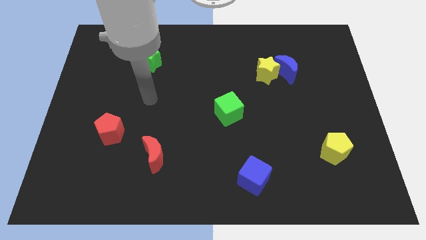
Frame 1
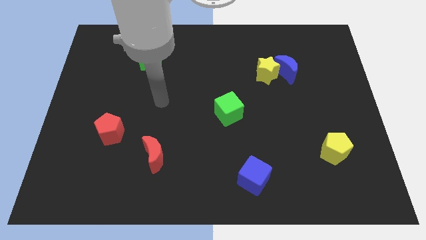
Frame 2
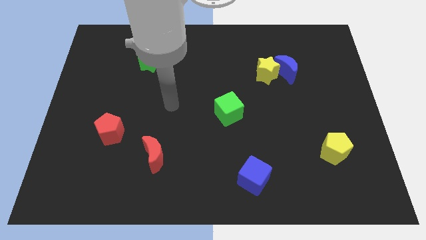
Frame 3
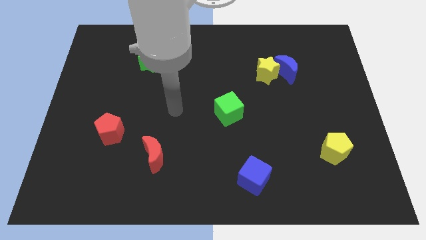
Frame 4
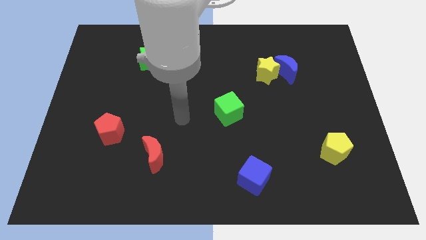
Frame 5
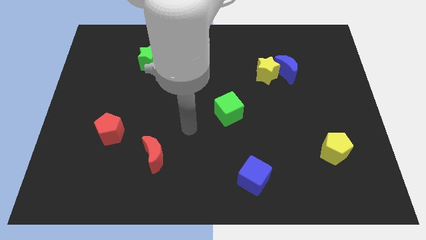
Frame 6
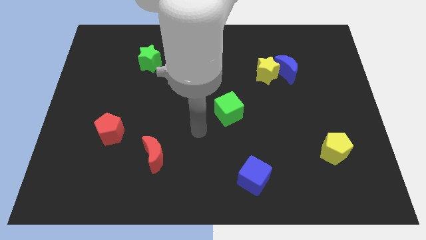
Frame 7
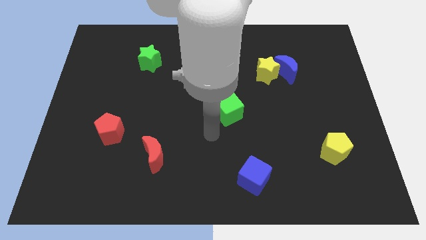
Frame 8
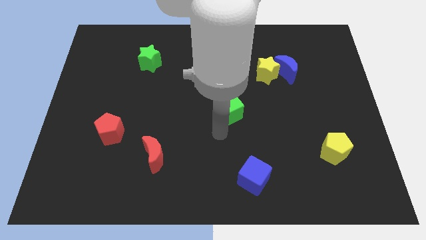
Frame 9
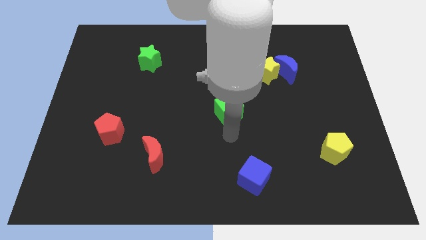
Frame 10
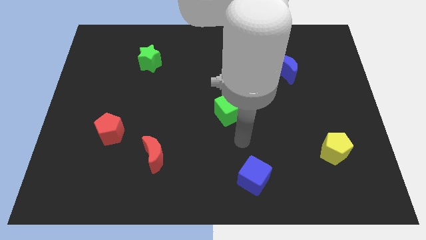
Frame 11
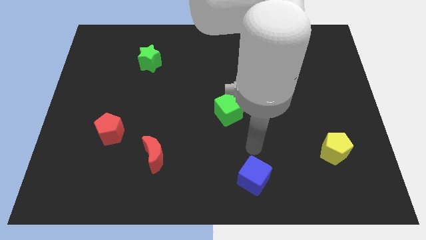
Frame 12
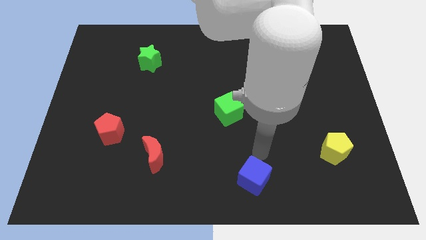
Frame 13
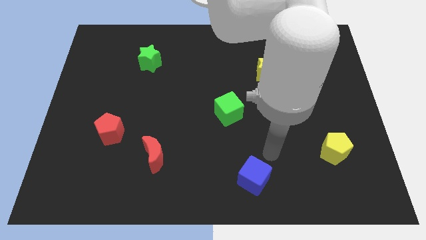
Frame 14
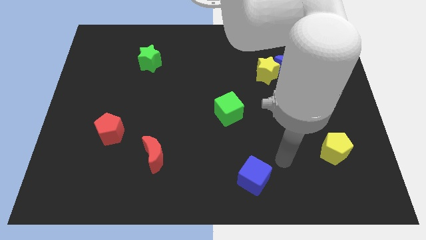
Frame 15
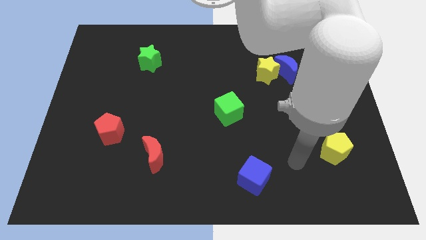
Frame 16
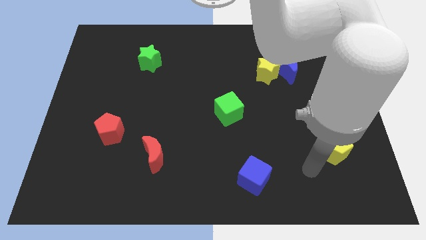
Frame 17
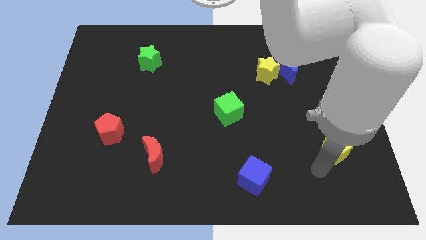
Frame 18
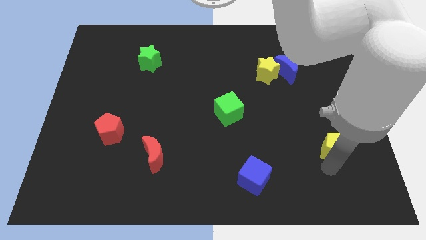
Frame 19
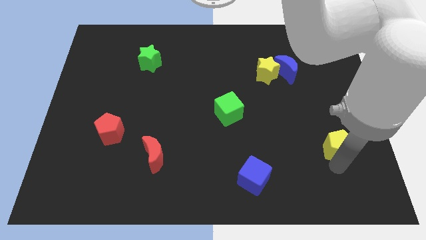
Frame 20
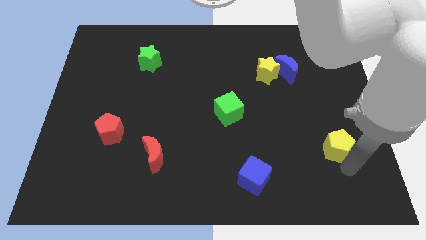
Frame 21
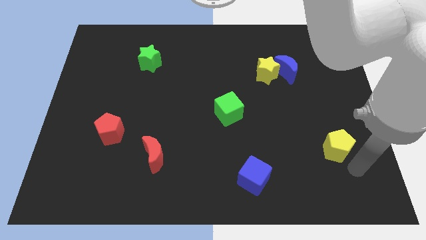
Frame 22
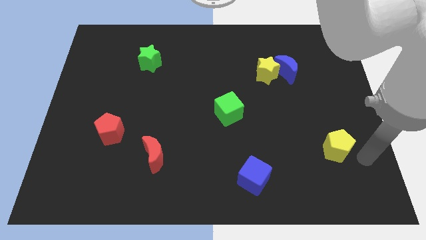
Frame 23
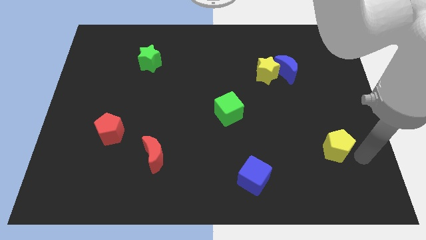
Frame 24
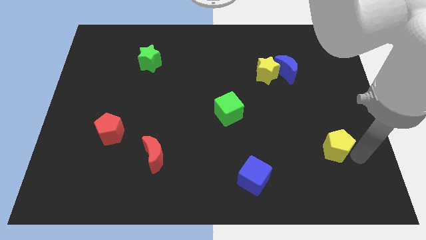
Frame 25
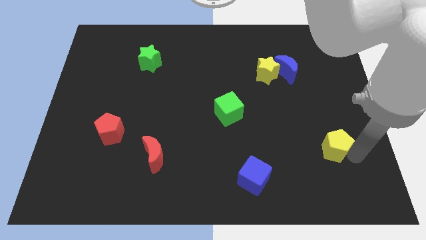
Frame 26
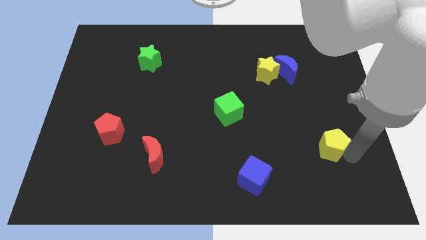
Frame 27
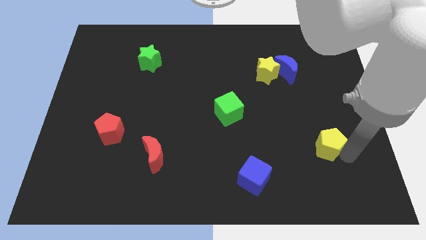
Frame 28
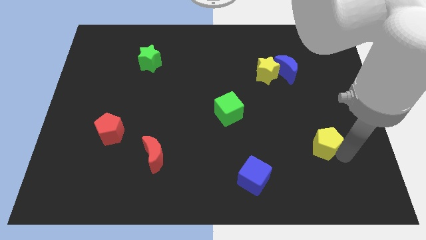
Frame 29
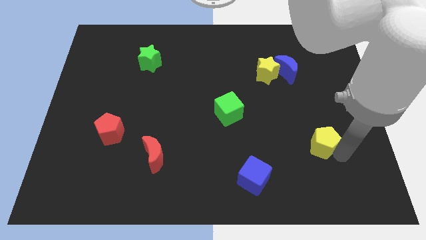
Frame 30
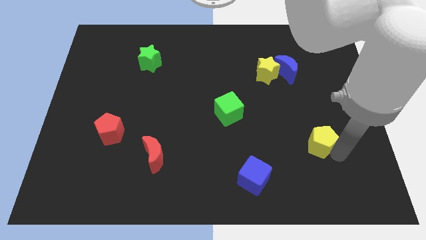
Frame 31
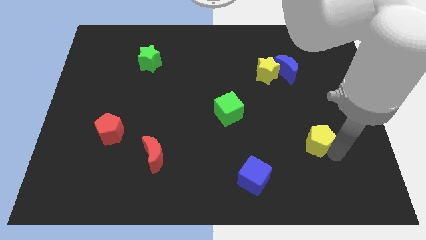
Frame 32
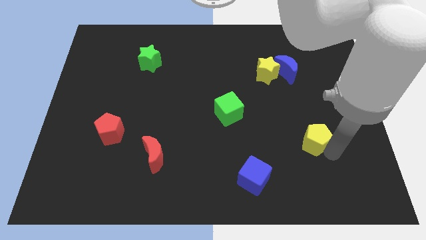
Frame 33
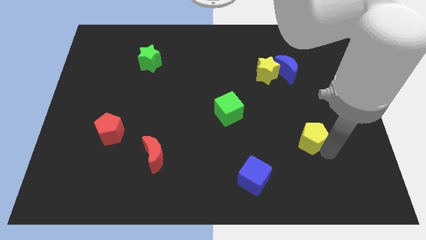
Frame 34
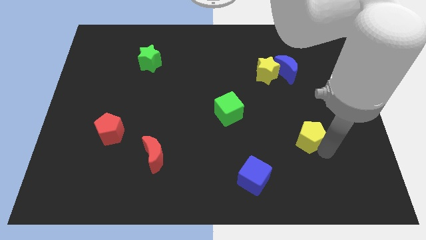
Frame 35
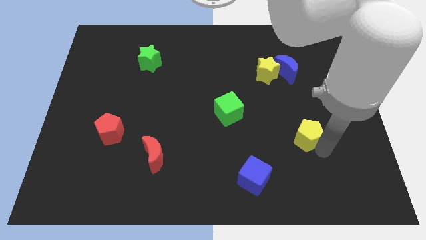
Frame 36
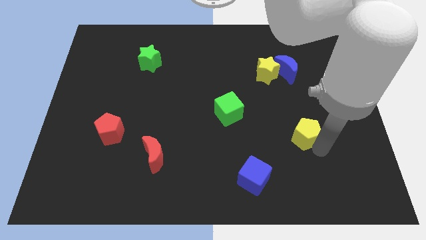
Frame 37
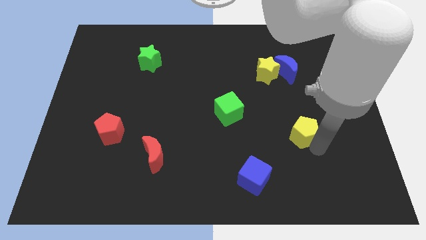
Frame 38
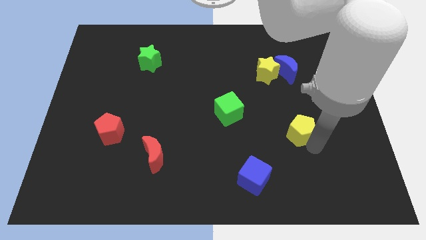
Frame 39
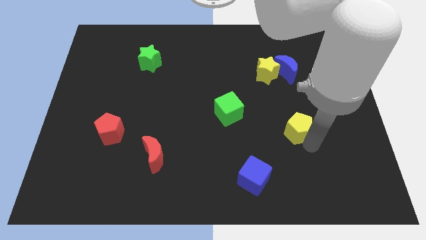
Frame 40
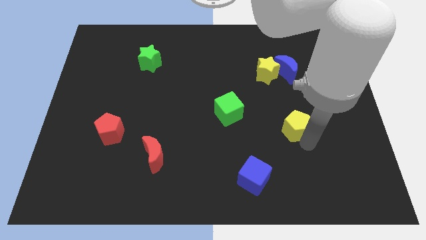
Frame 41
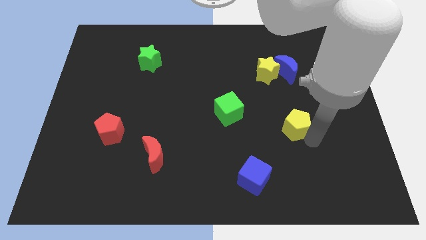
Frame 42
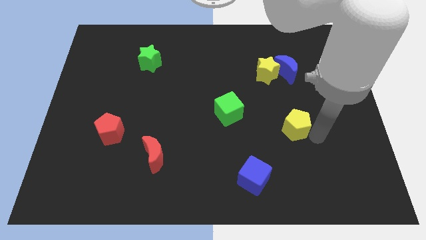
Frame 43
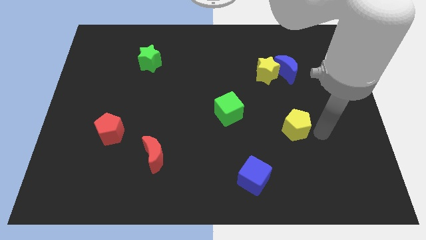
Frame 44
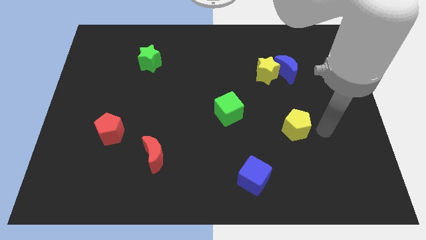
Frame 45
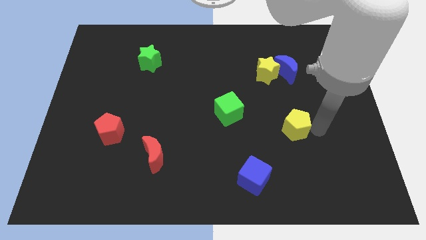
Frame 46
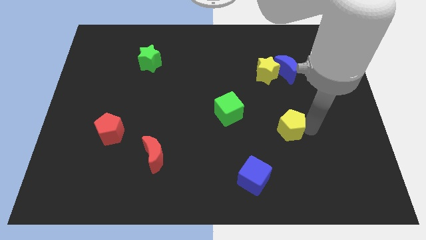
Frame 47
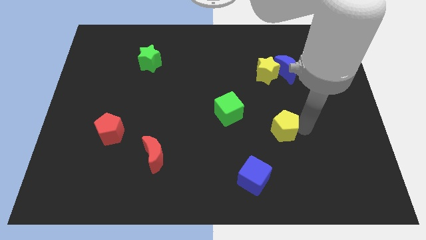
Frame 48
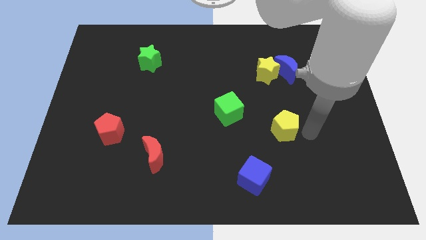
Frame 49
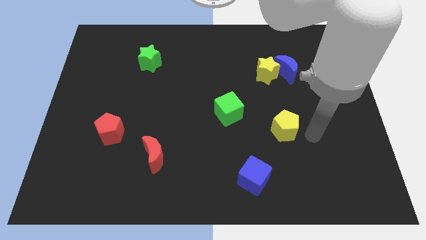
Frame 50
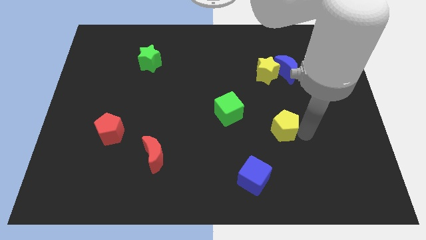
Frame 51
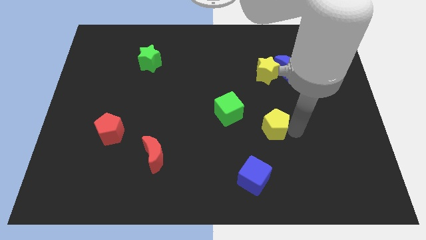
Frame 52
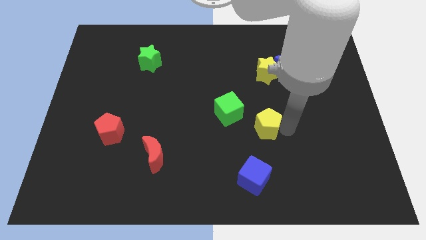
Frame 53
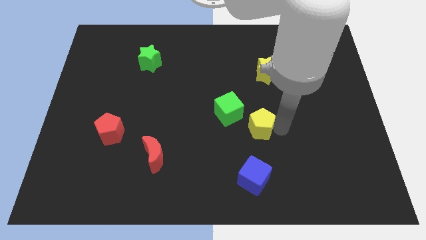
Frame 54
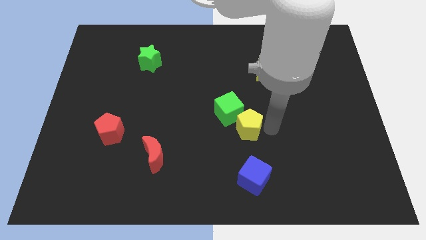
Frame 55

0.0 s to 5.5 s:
slide the yellow pentagon next to the green cube

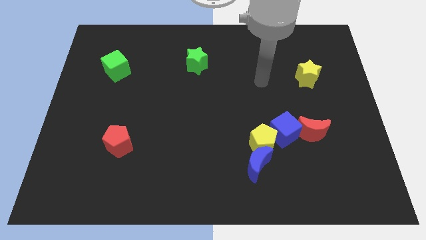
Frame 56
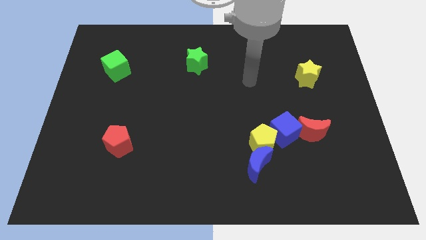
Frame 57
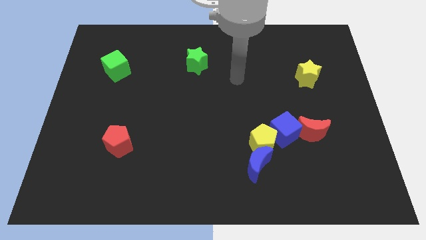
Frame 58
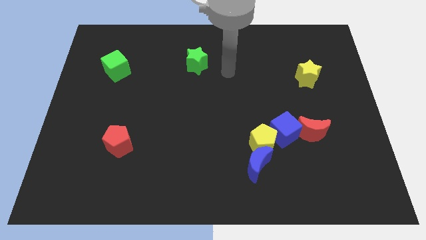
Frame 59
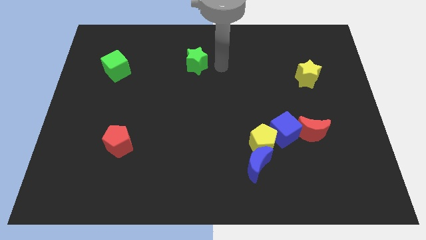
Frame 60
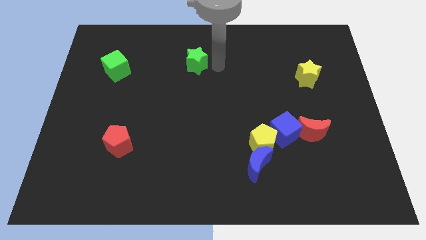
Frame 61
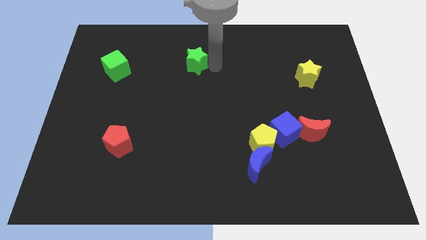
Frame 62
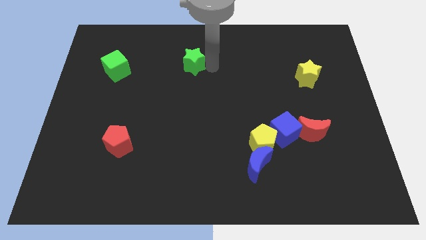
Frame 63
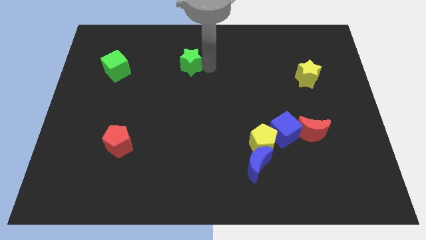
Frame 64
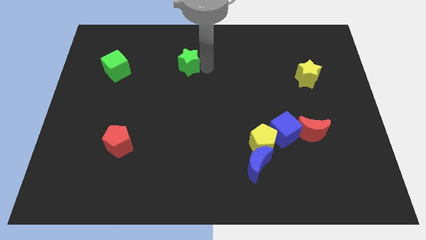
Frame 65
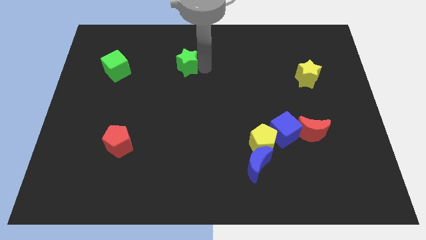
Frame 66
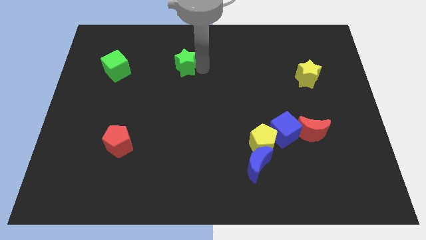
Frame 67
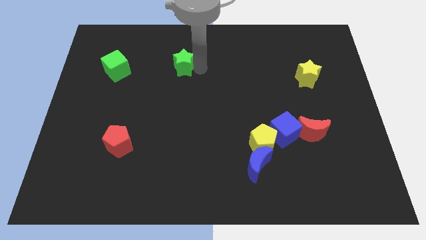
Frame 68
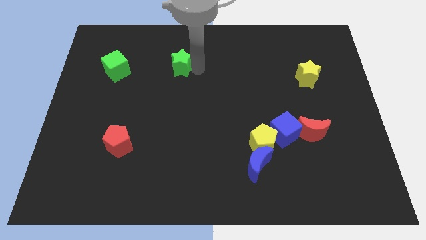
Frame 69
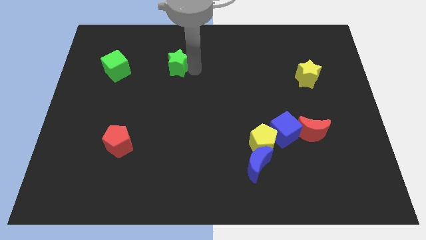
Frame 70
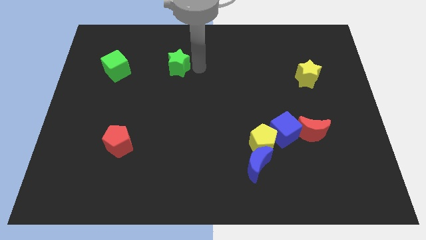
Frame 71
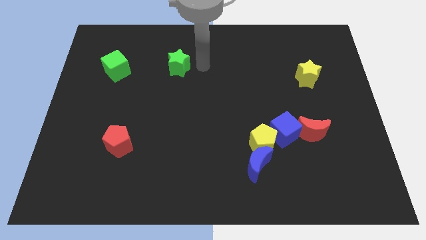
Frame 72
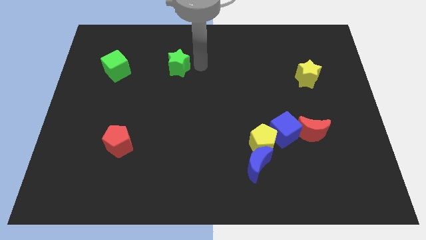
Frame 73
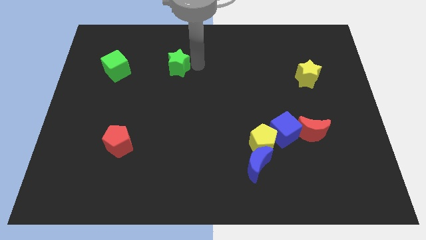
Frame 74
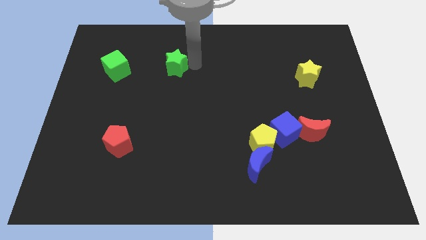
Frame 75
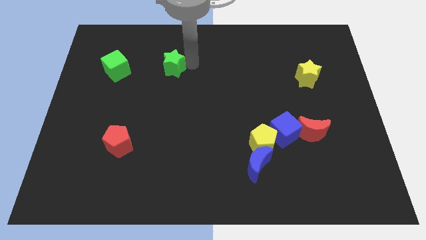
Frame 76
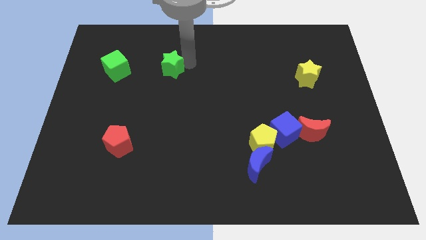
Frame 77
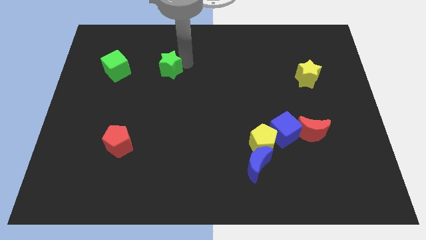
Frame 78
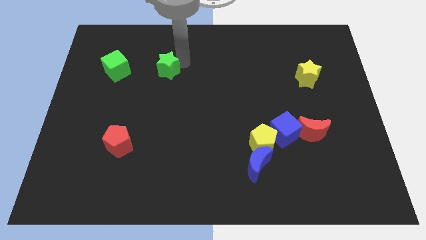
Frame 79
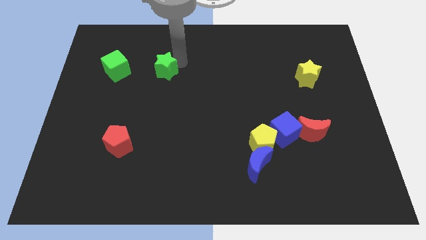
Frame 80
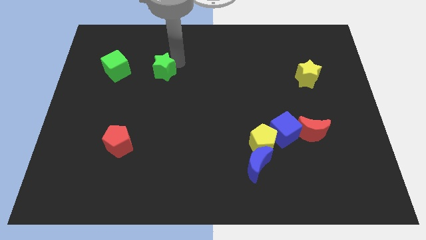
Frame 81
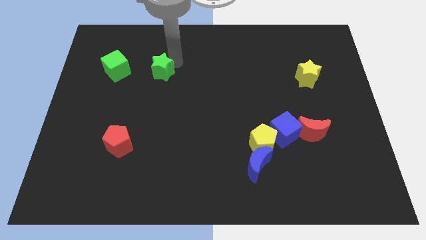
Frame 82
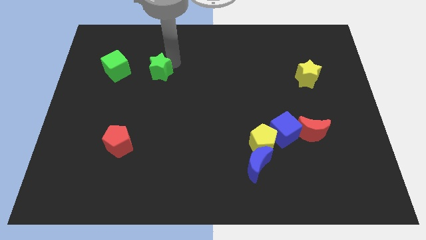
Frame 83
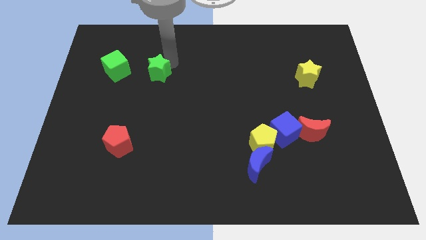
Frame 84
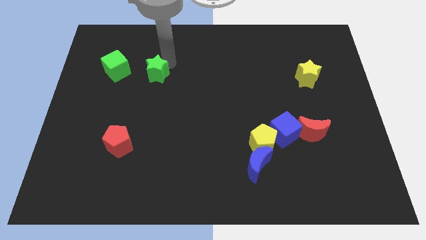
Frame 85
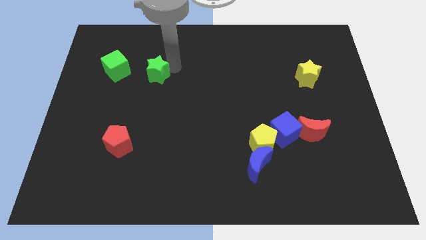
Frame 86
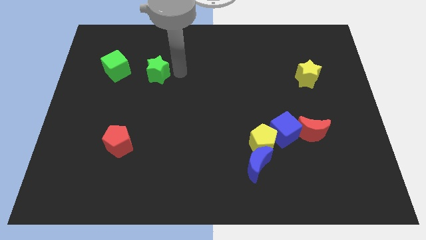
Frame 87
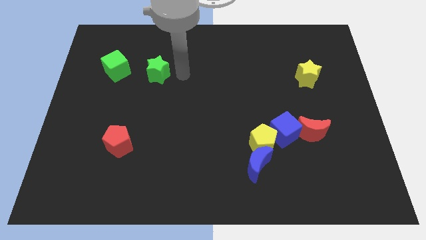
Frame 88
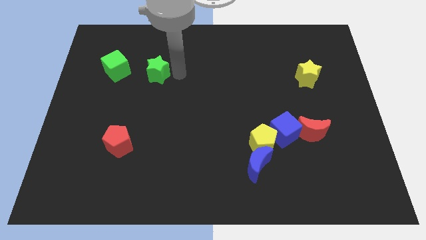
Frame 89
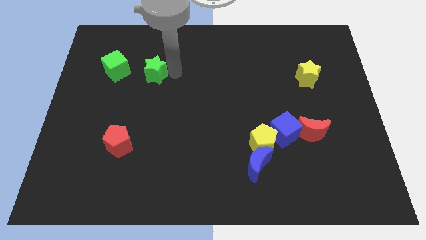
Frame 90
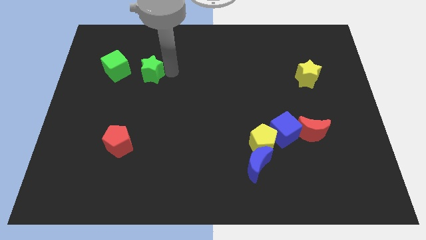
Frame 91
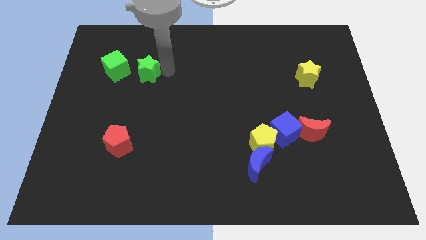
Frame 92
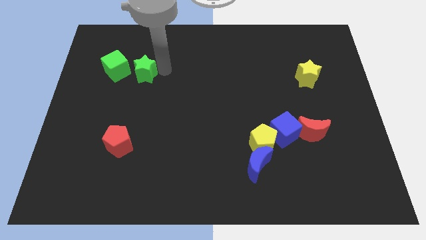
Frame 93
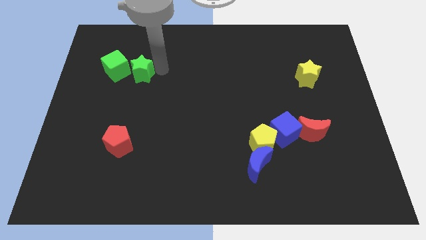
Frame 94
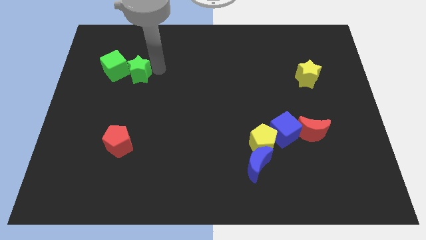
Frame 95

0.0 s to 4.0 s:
put the green star towards the green cube
